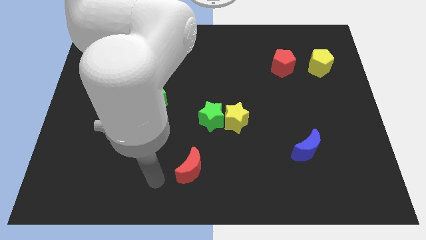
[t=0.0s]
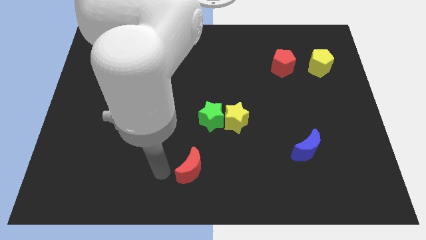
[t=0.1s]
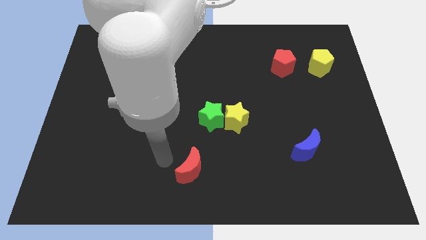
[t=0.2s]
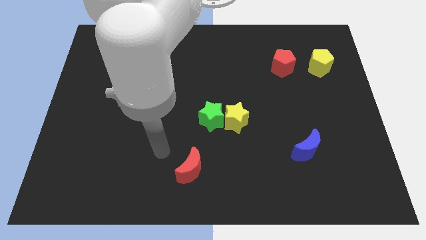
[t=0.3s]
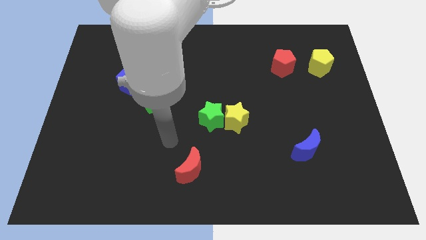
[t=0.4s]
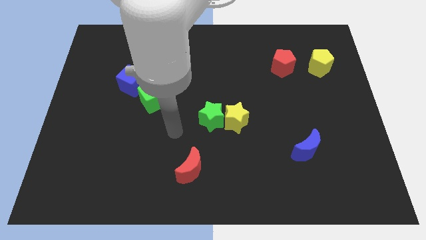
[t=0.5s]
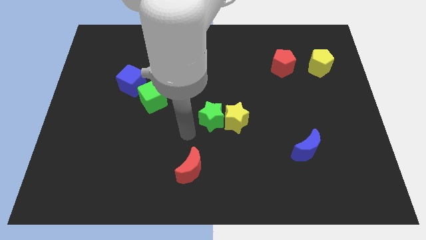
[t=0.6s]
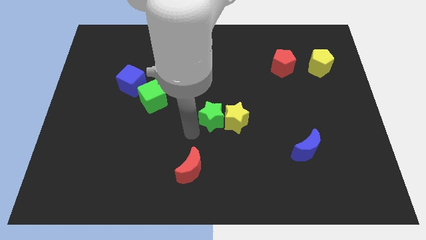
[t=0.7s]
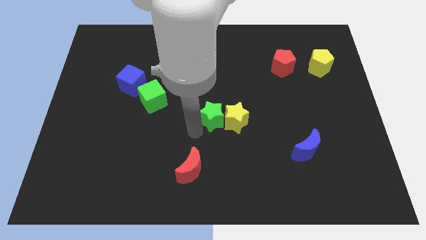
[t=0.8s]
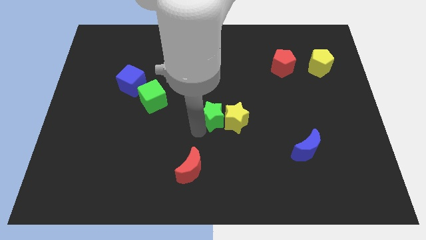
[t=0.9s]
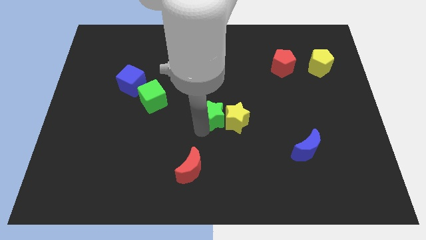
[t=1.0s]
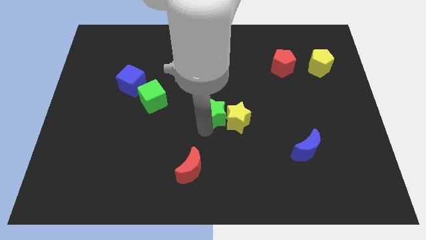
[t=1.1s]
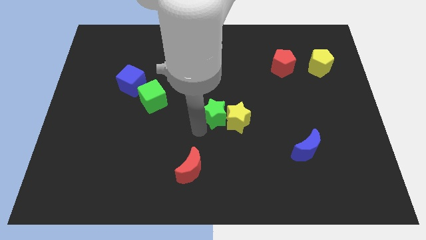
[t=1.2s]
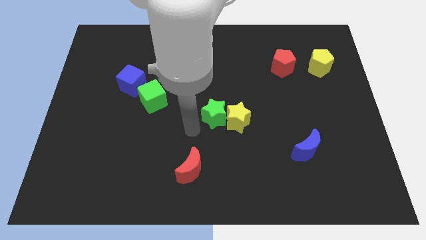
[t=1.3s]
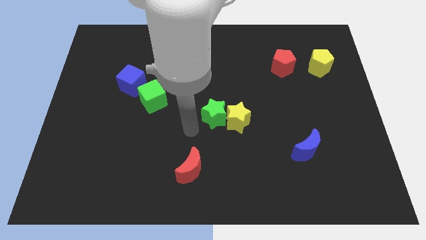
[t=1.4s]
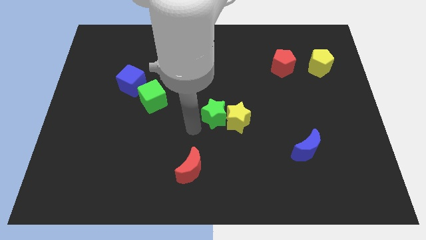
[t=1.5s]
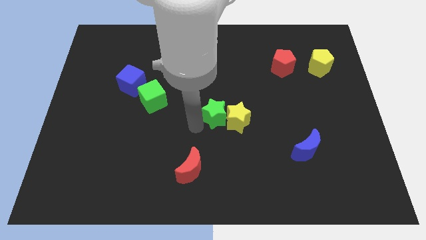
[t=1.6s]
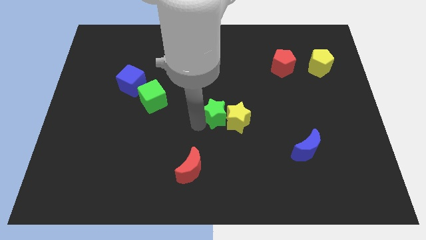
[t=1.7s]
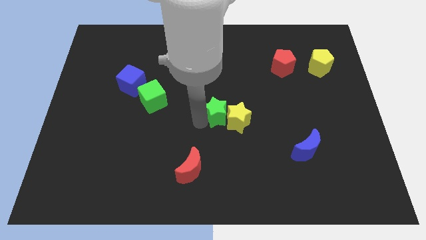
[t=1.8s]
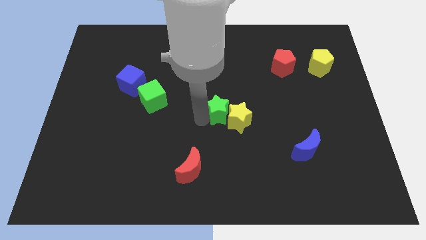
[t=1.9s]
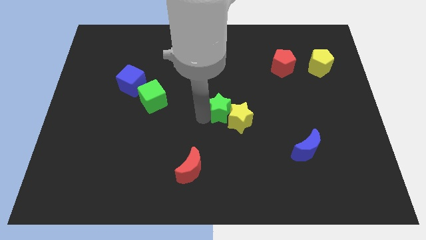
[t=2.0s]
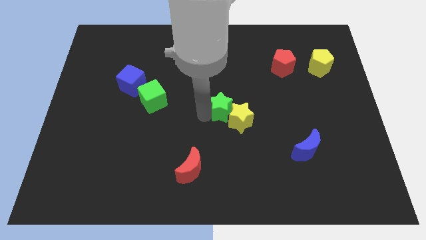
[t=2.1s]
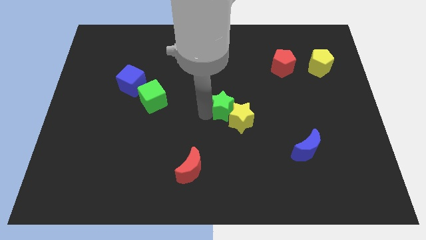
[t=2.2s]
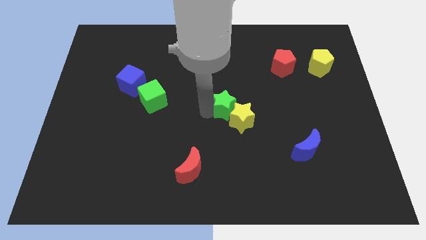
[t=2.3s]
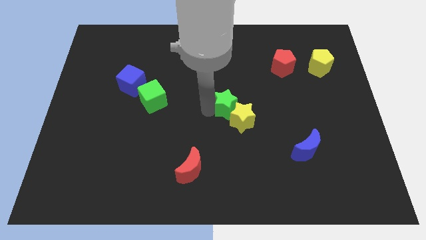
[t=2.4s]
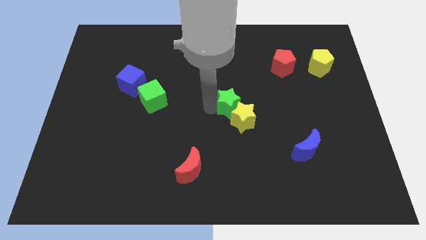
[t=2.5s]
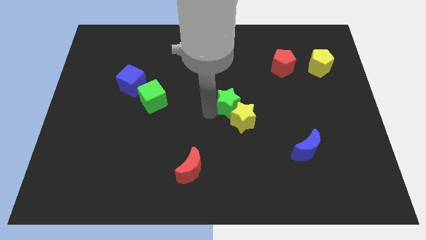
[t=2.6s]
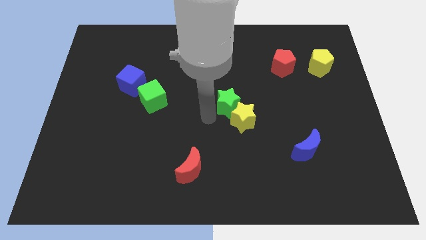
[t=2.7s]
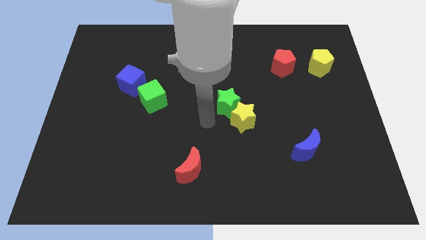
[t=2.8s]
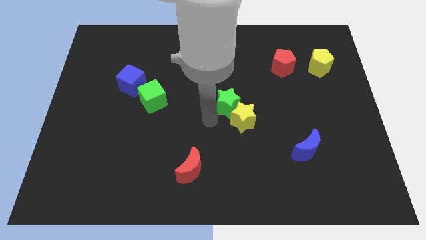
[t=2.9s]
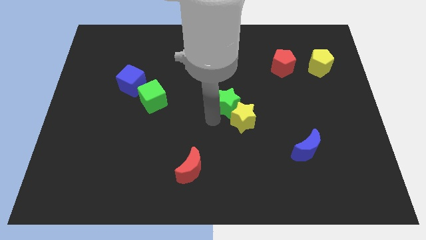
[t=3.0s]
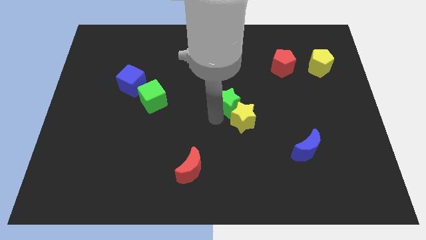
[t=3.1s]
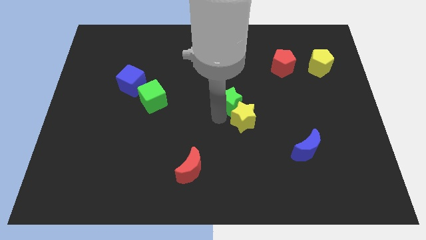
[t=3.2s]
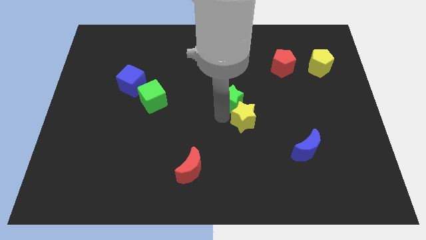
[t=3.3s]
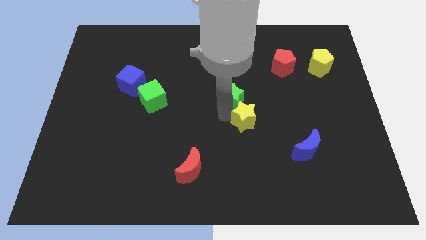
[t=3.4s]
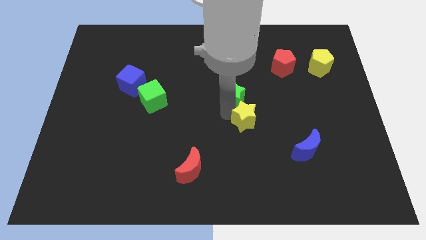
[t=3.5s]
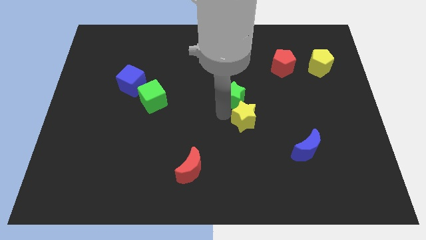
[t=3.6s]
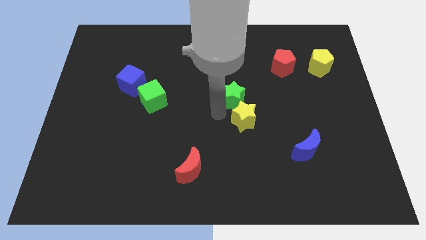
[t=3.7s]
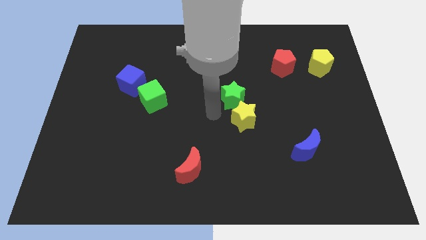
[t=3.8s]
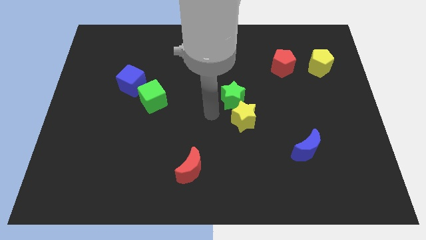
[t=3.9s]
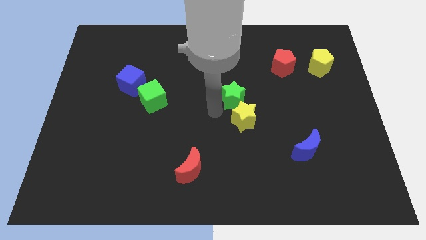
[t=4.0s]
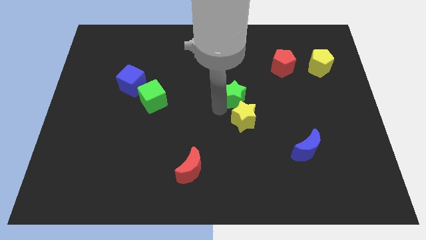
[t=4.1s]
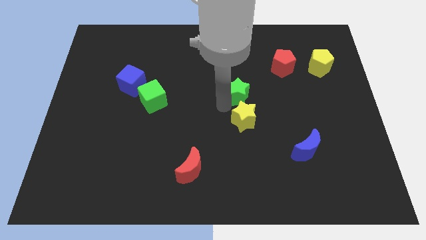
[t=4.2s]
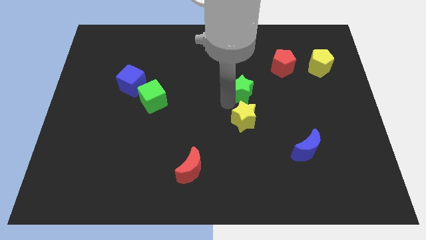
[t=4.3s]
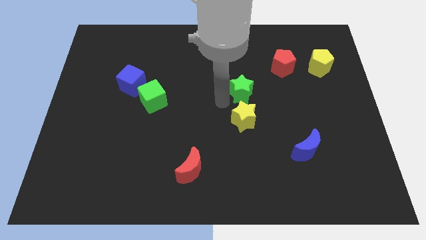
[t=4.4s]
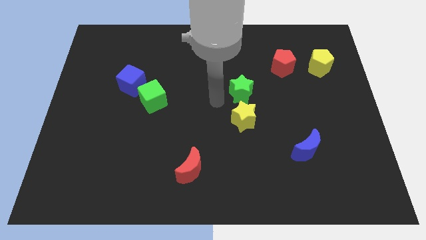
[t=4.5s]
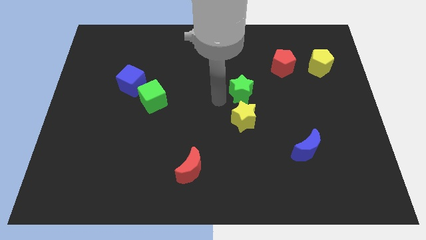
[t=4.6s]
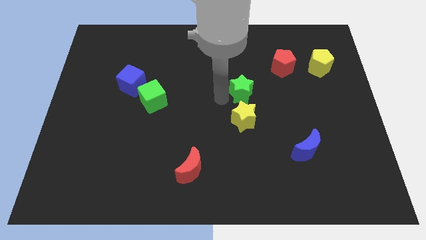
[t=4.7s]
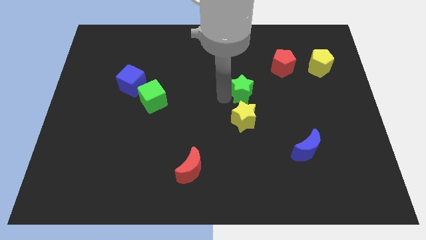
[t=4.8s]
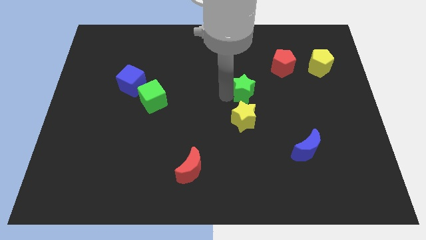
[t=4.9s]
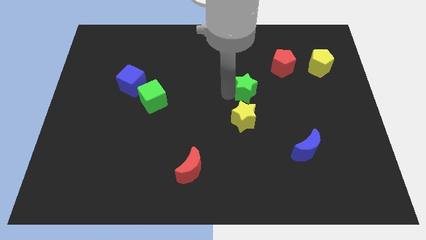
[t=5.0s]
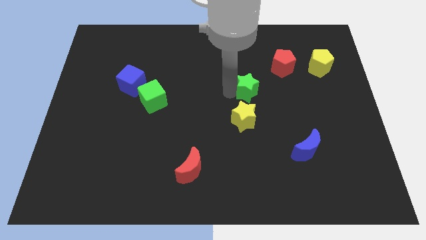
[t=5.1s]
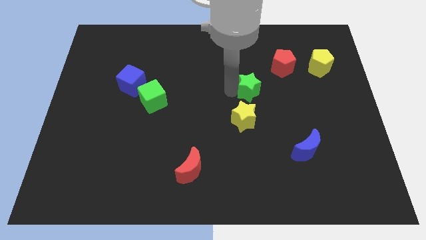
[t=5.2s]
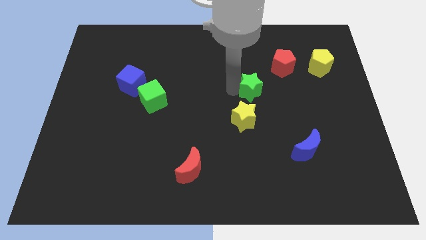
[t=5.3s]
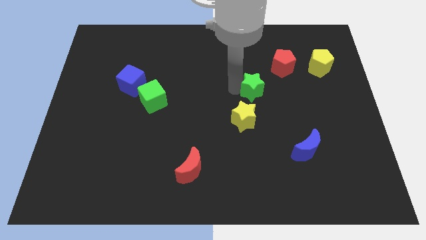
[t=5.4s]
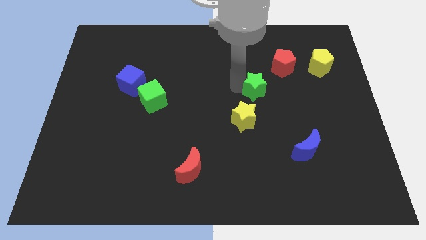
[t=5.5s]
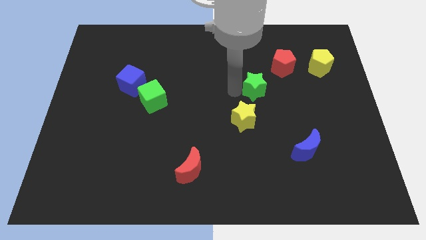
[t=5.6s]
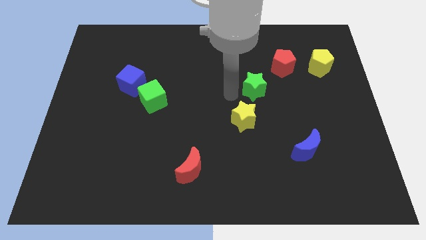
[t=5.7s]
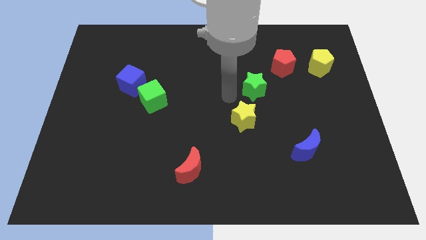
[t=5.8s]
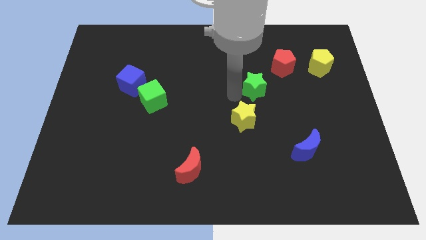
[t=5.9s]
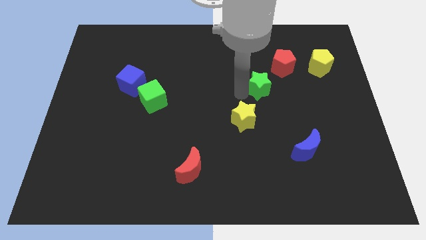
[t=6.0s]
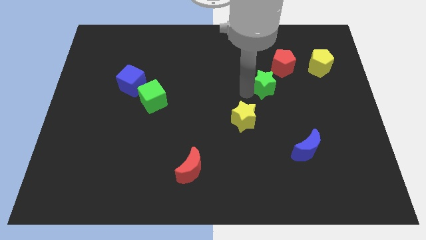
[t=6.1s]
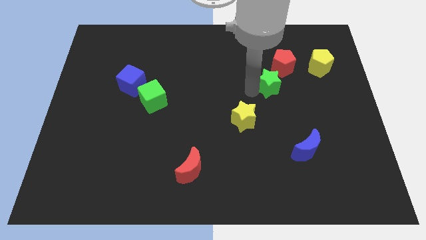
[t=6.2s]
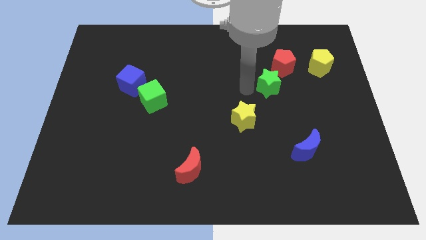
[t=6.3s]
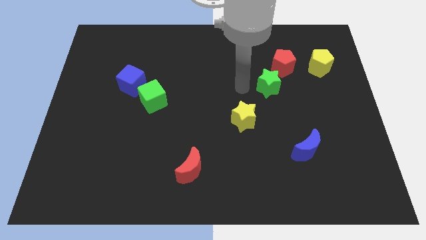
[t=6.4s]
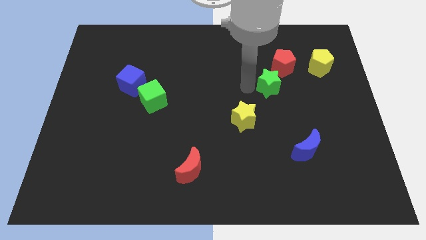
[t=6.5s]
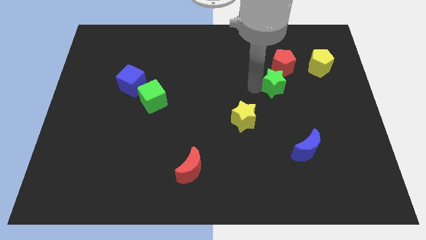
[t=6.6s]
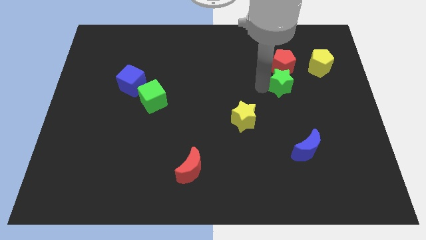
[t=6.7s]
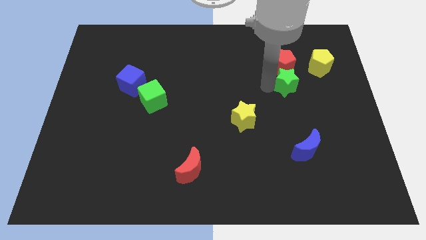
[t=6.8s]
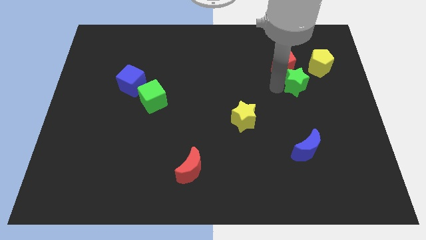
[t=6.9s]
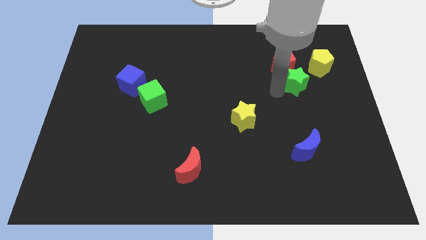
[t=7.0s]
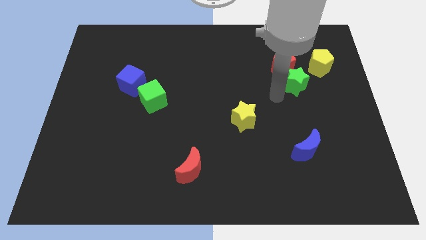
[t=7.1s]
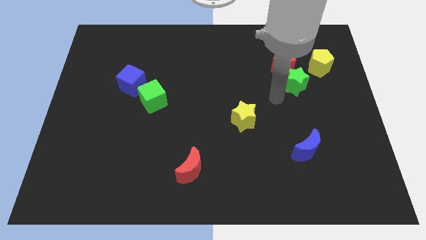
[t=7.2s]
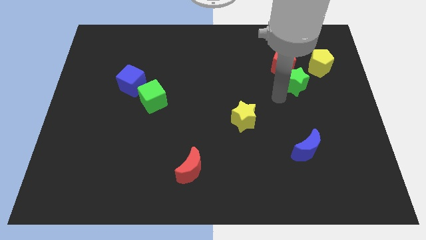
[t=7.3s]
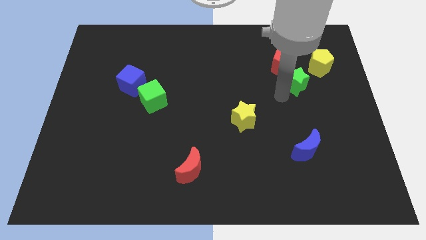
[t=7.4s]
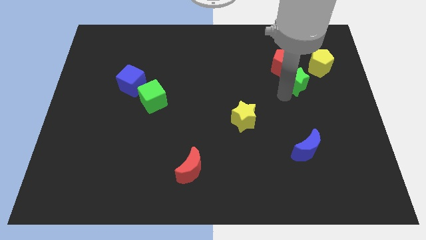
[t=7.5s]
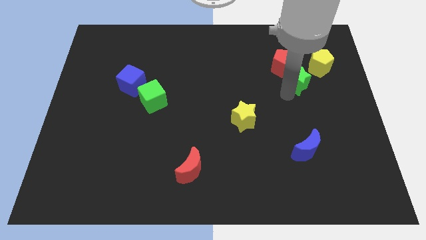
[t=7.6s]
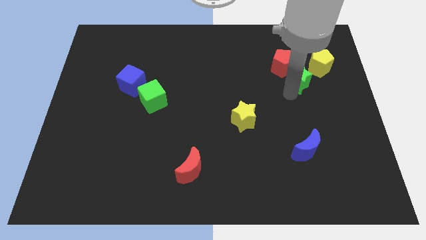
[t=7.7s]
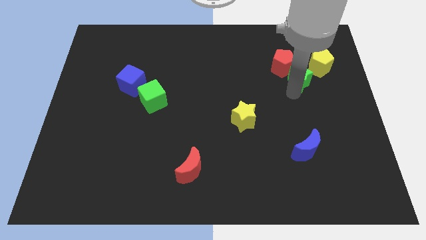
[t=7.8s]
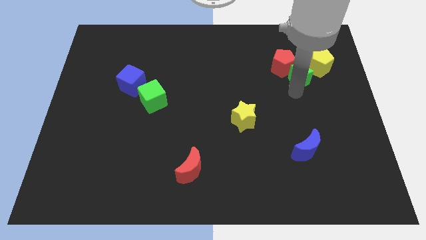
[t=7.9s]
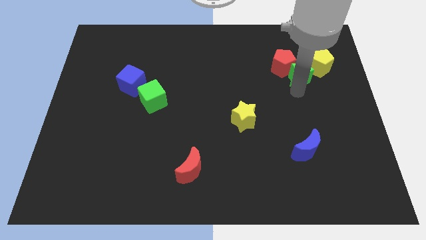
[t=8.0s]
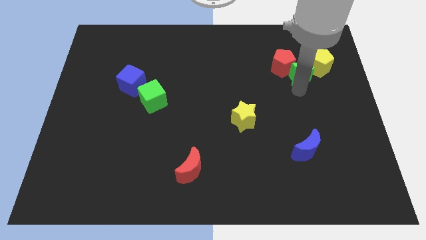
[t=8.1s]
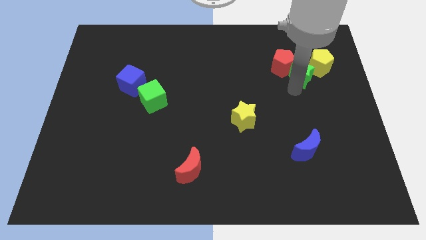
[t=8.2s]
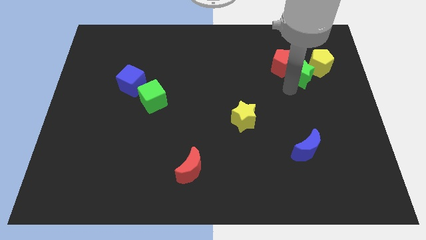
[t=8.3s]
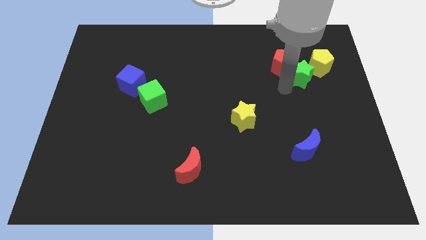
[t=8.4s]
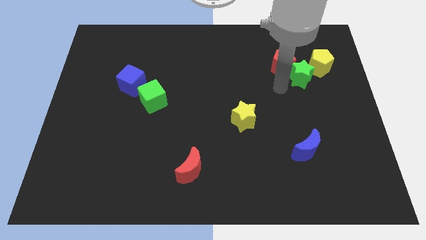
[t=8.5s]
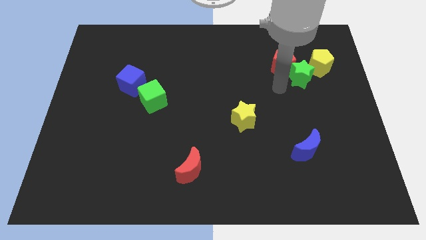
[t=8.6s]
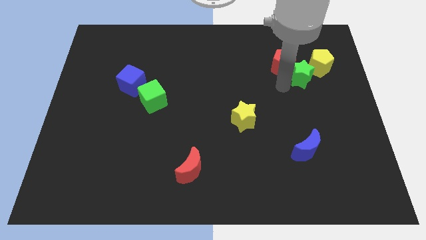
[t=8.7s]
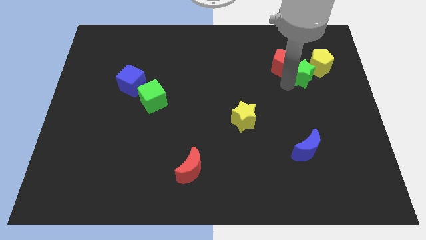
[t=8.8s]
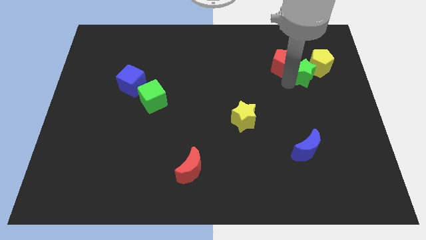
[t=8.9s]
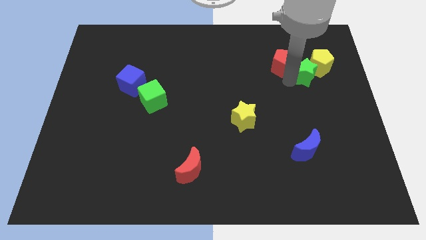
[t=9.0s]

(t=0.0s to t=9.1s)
push the green star towards the yellow pentagon
